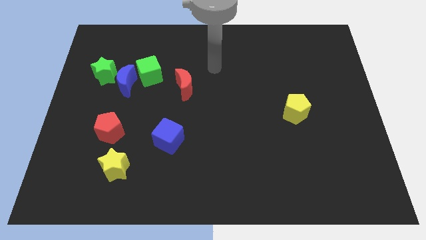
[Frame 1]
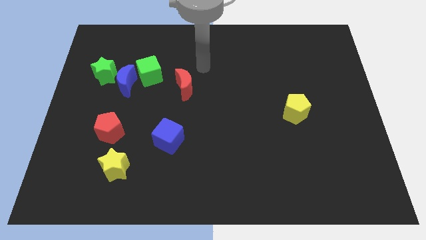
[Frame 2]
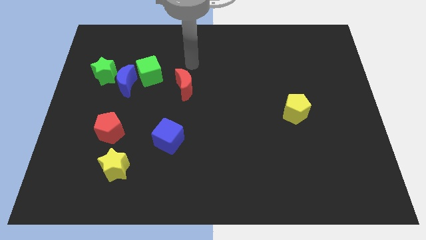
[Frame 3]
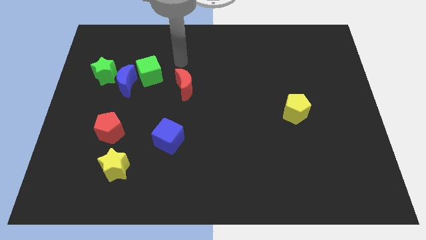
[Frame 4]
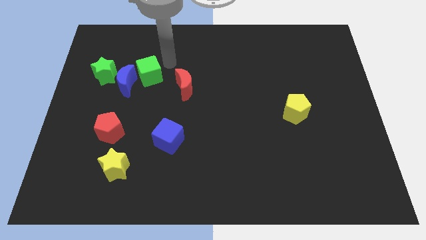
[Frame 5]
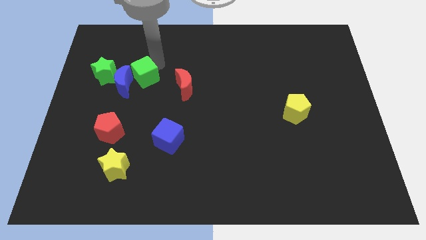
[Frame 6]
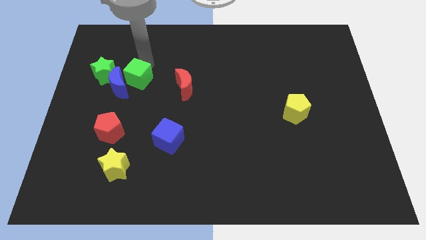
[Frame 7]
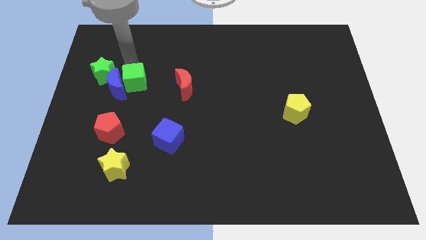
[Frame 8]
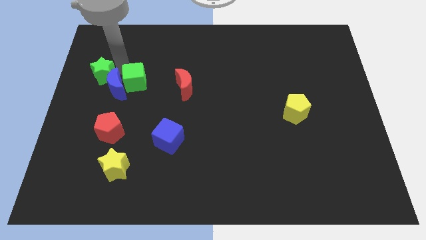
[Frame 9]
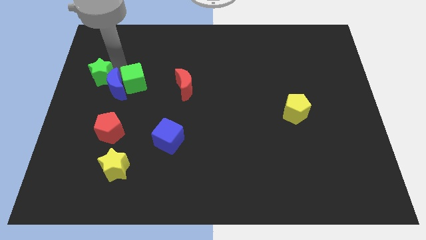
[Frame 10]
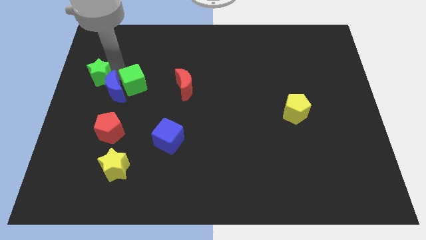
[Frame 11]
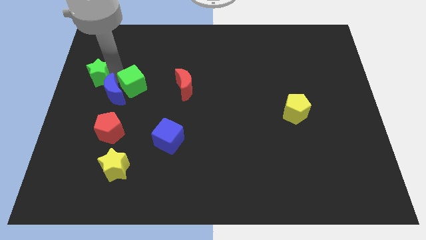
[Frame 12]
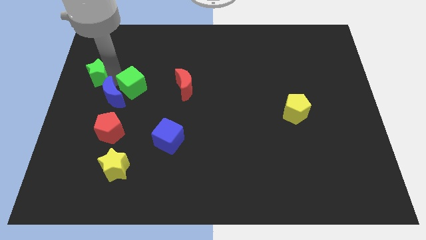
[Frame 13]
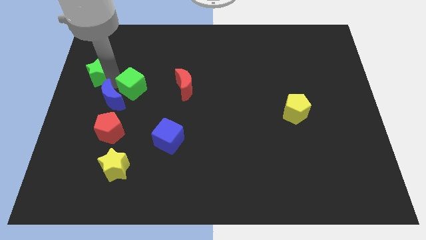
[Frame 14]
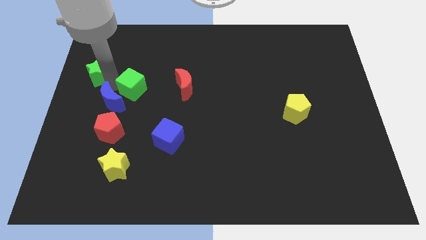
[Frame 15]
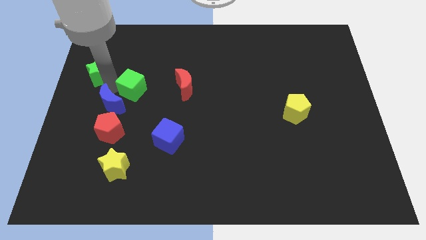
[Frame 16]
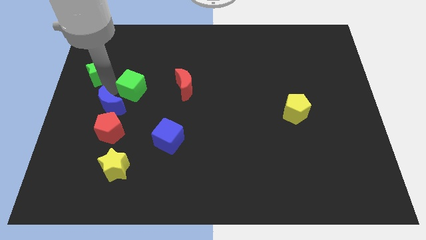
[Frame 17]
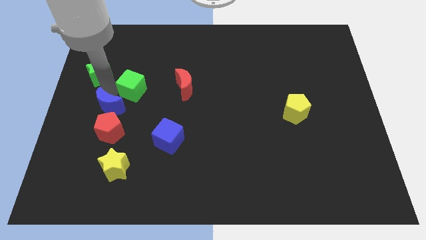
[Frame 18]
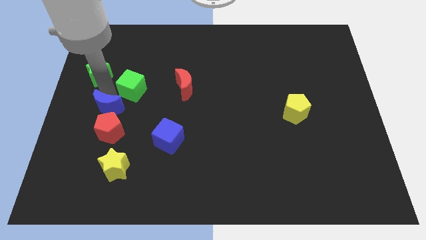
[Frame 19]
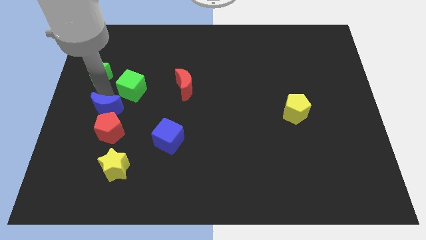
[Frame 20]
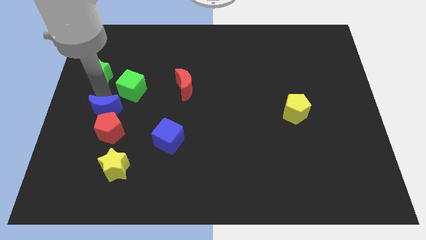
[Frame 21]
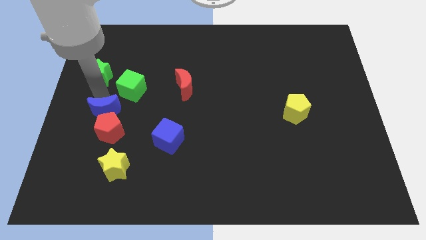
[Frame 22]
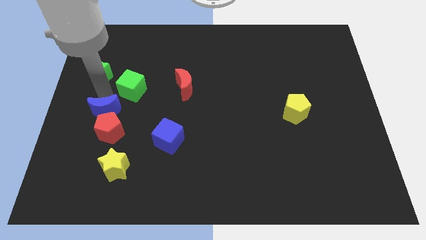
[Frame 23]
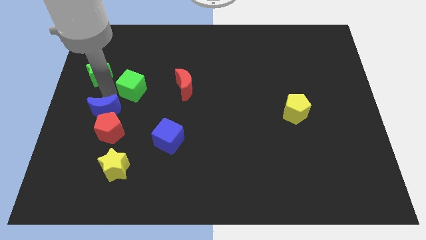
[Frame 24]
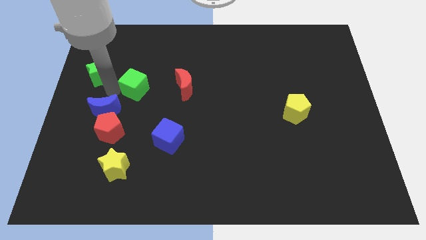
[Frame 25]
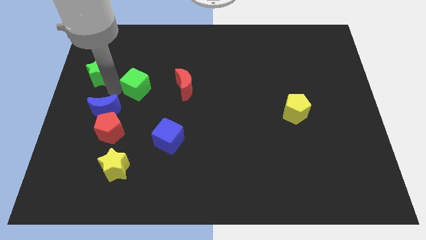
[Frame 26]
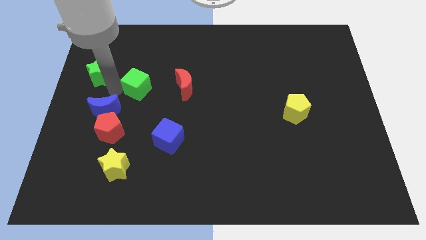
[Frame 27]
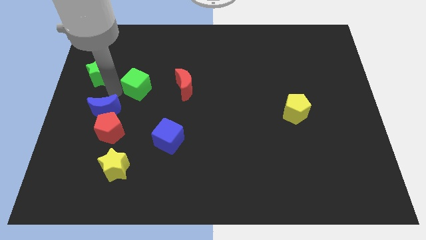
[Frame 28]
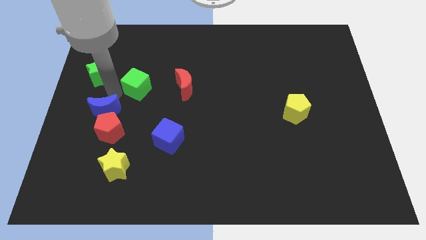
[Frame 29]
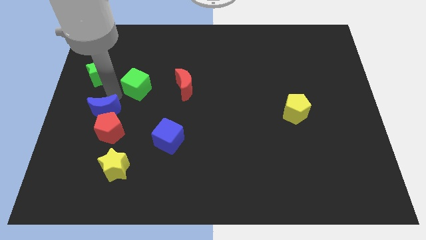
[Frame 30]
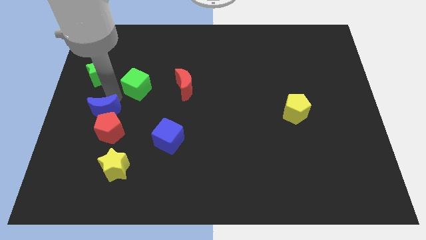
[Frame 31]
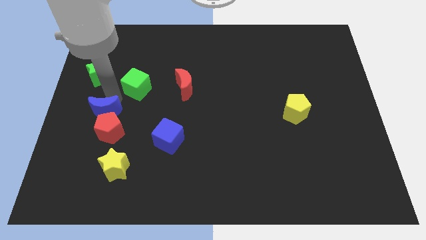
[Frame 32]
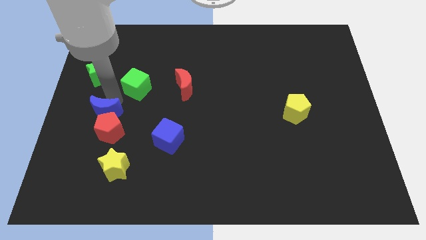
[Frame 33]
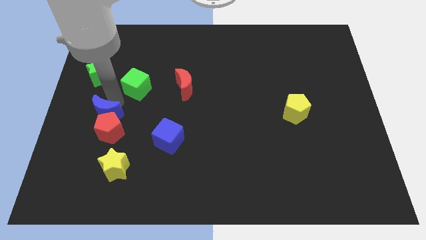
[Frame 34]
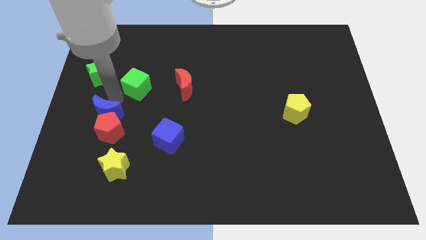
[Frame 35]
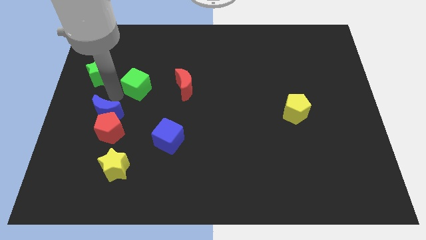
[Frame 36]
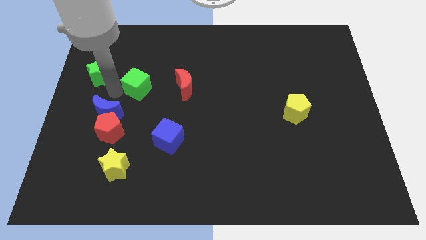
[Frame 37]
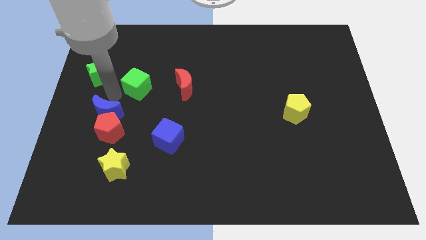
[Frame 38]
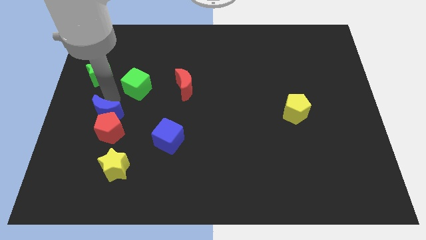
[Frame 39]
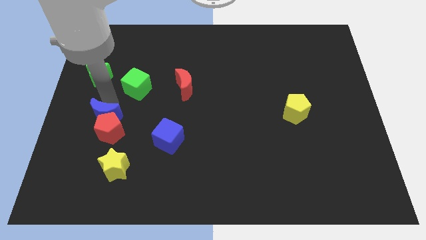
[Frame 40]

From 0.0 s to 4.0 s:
move the blue moon away from the green cube and green star

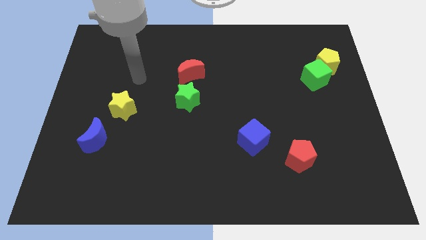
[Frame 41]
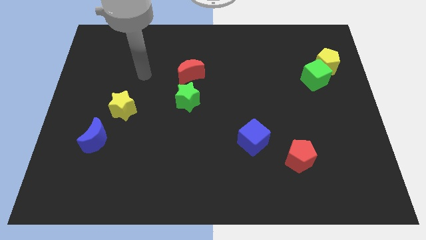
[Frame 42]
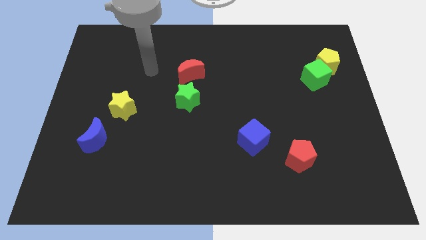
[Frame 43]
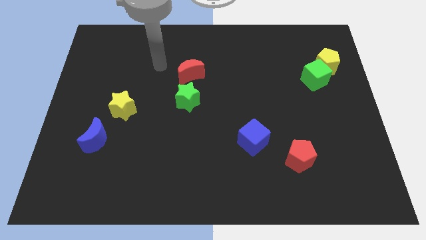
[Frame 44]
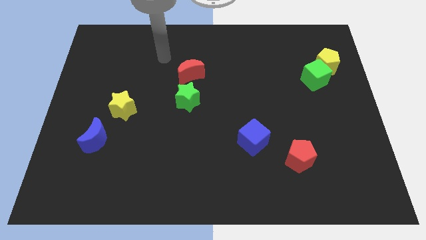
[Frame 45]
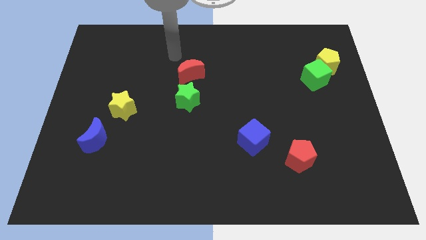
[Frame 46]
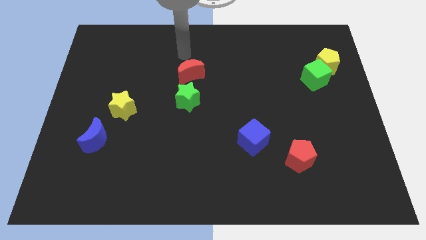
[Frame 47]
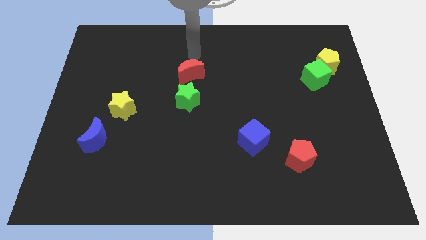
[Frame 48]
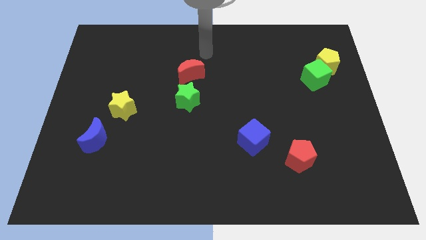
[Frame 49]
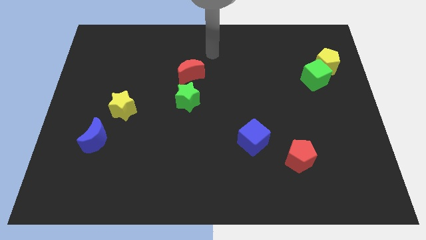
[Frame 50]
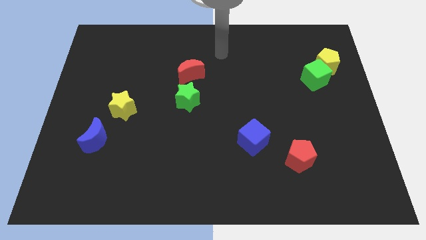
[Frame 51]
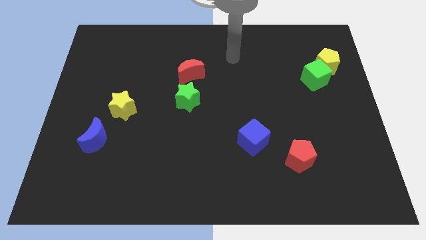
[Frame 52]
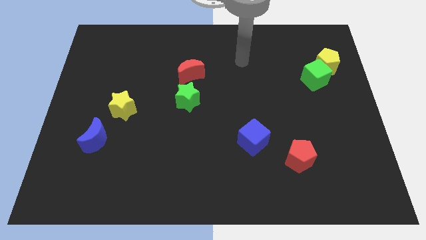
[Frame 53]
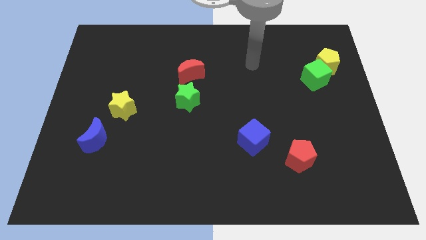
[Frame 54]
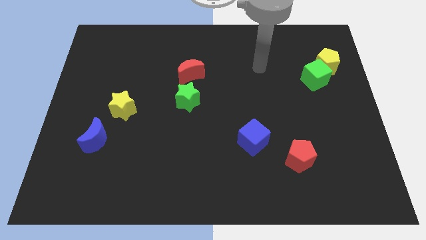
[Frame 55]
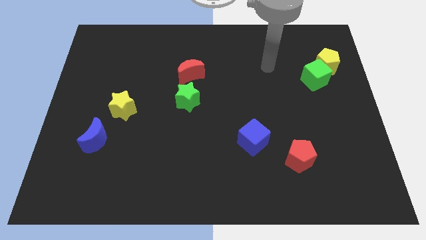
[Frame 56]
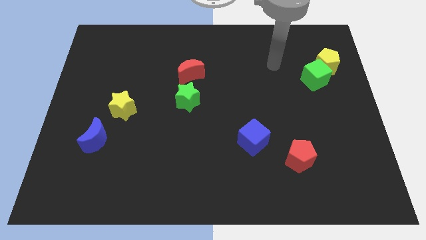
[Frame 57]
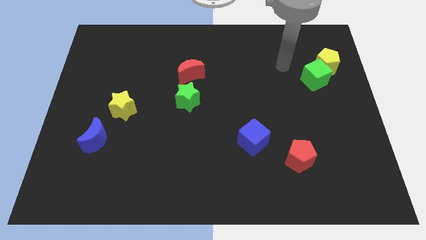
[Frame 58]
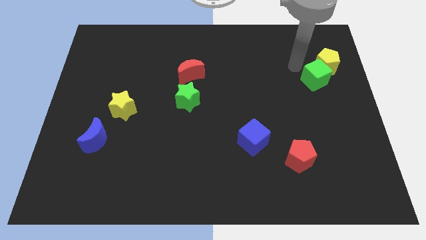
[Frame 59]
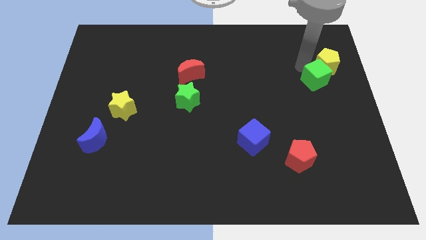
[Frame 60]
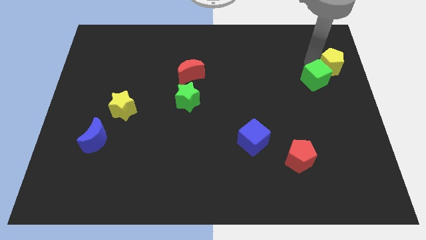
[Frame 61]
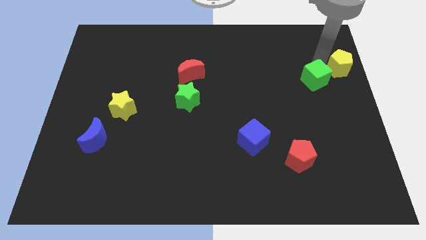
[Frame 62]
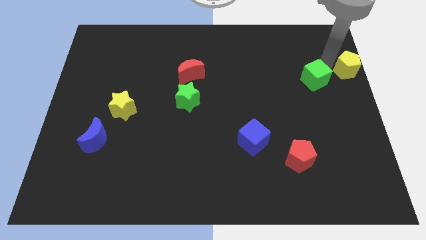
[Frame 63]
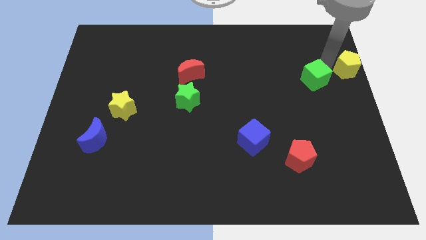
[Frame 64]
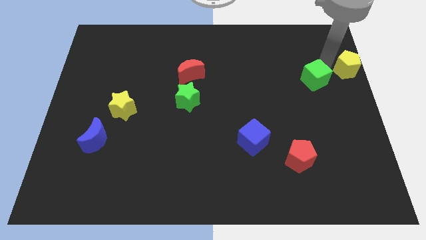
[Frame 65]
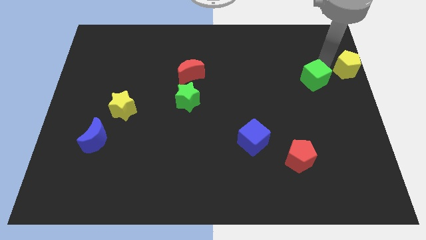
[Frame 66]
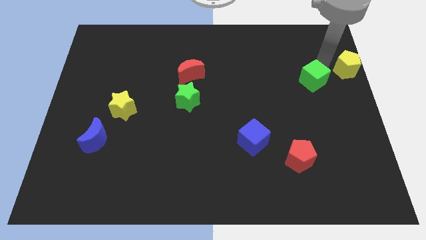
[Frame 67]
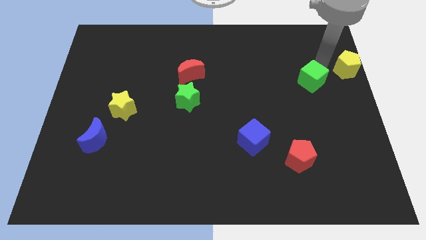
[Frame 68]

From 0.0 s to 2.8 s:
separate the green cube from the yellow pentagon

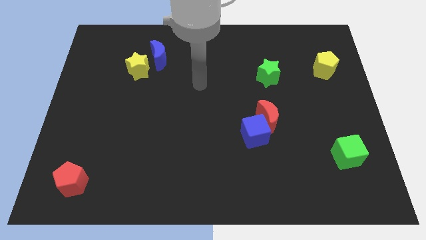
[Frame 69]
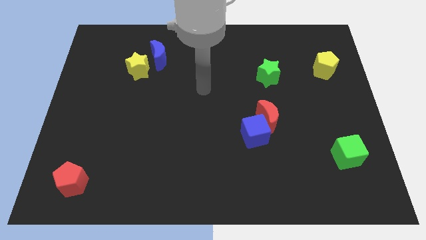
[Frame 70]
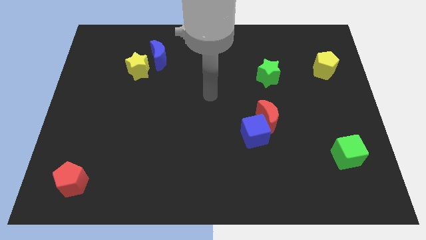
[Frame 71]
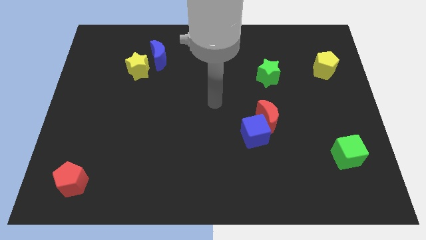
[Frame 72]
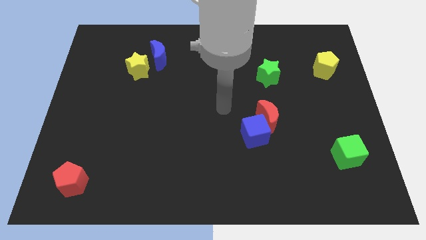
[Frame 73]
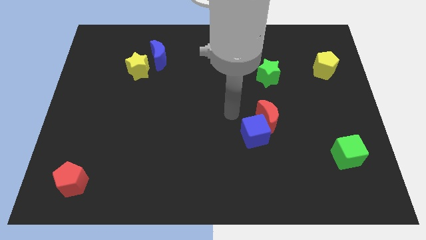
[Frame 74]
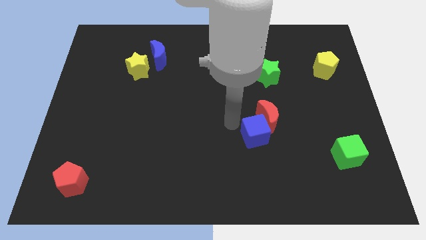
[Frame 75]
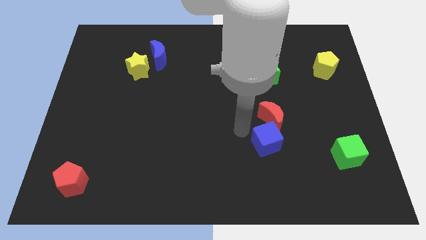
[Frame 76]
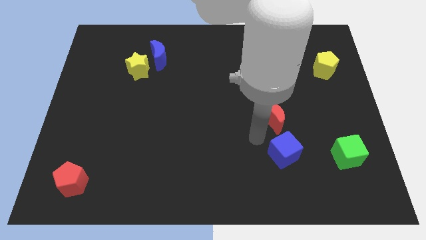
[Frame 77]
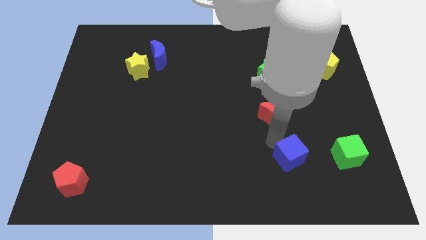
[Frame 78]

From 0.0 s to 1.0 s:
move the red moon away from the blue cube

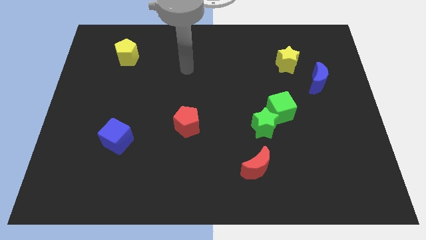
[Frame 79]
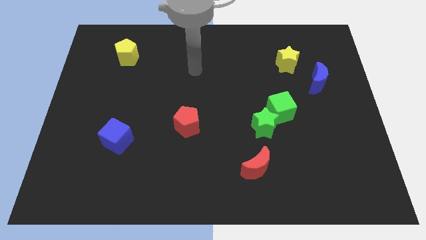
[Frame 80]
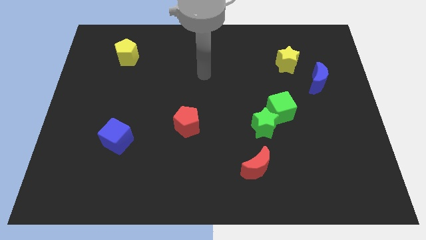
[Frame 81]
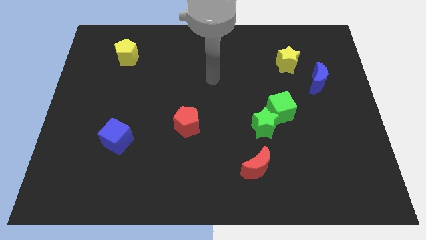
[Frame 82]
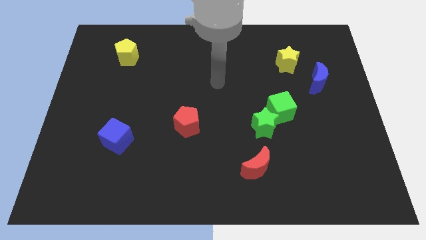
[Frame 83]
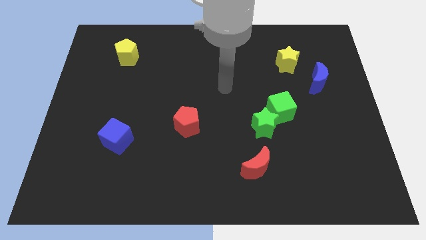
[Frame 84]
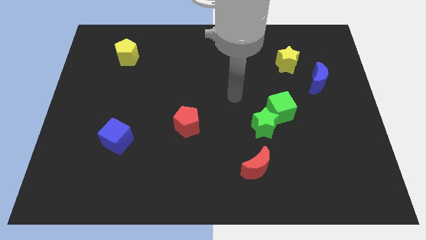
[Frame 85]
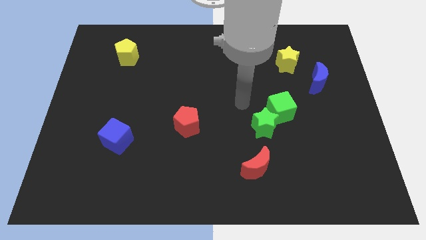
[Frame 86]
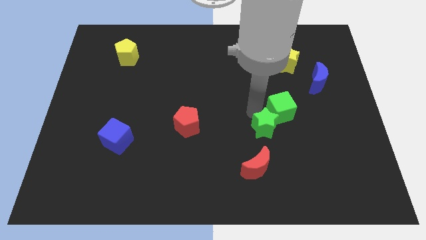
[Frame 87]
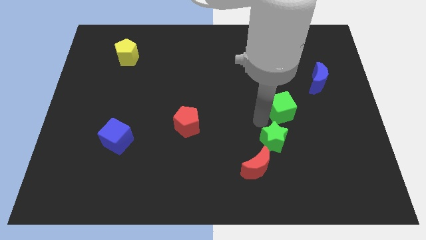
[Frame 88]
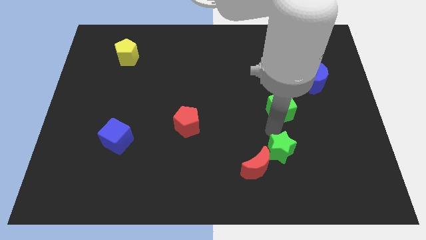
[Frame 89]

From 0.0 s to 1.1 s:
separate the green cube from the green star

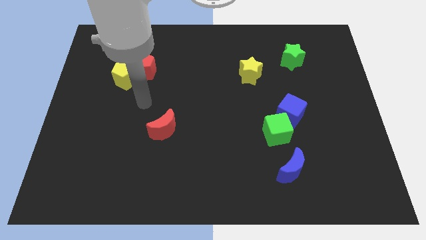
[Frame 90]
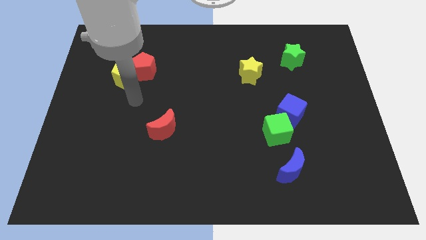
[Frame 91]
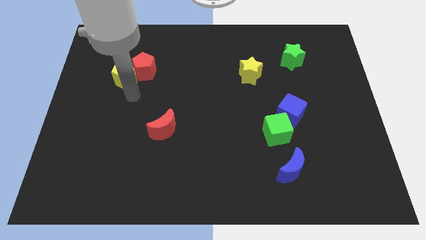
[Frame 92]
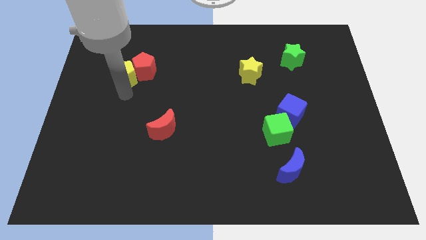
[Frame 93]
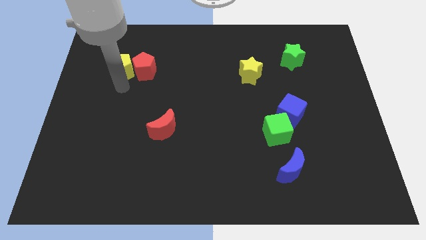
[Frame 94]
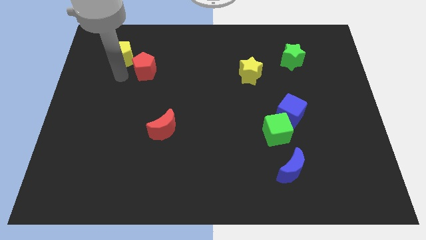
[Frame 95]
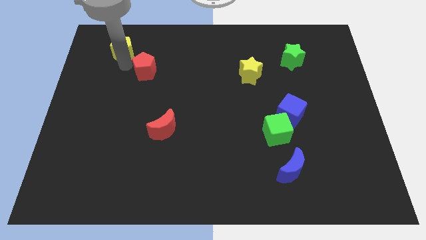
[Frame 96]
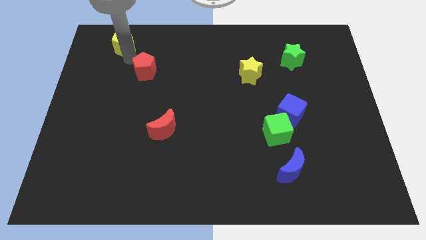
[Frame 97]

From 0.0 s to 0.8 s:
move the red pentagon away from the yellow pentagon
